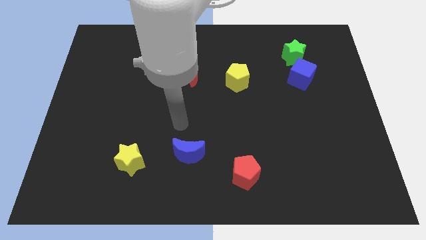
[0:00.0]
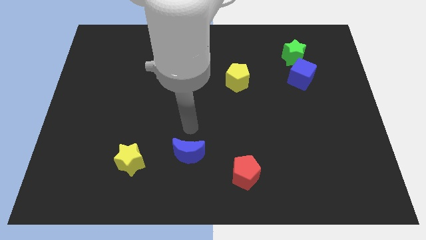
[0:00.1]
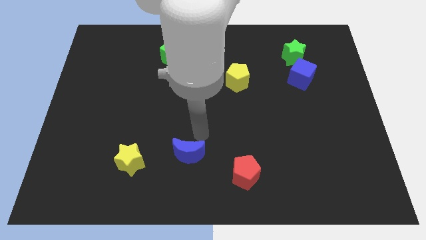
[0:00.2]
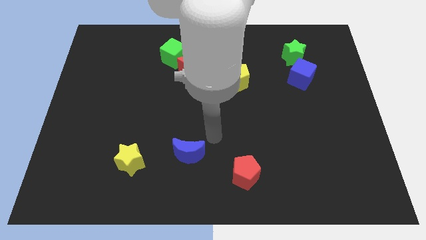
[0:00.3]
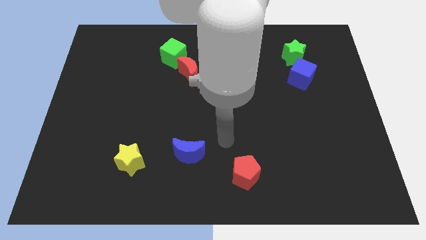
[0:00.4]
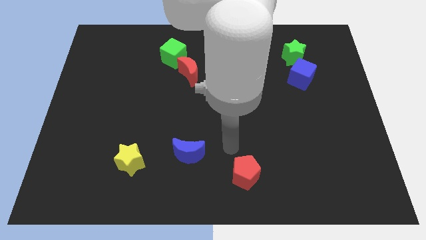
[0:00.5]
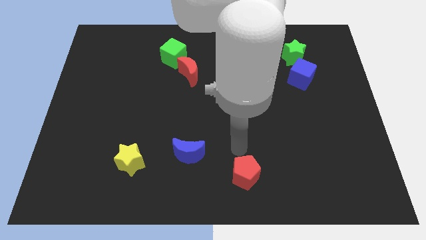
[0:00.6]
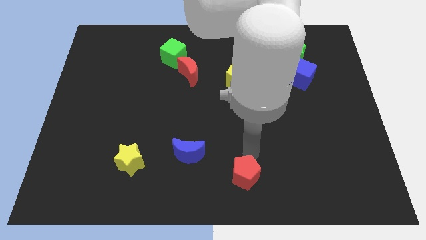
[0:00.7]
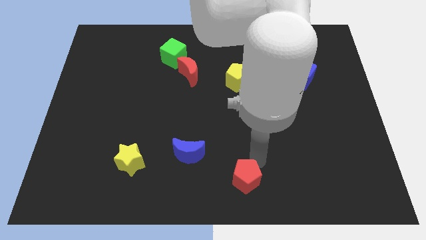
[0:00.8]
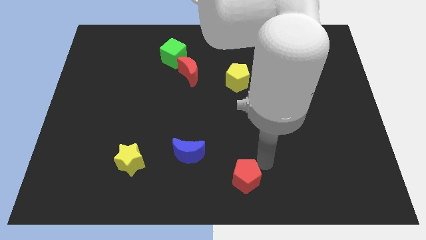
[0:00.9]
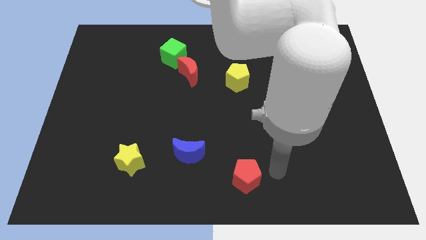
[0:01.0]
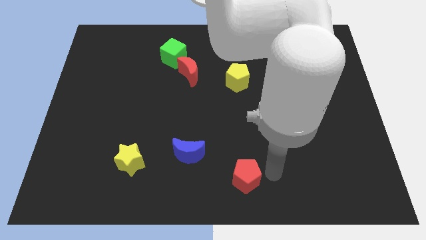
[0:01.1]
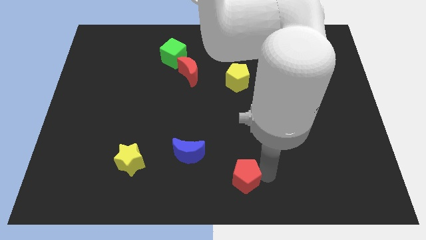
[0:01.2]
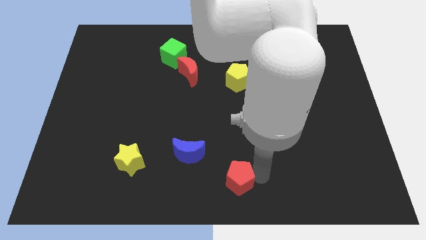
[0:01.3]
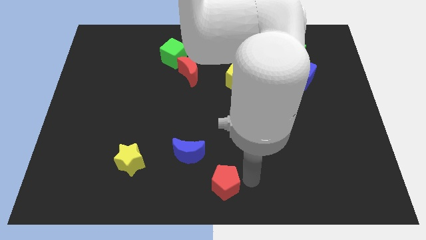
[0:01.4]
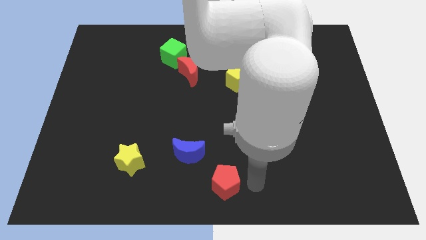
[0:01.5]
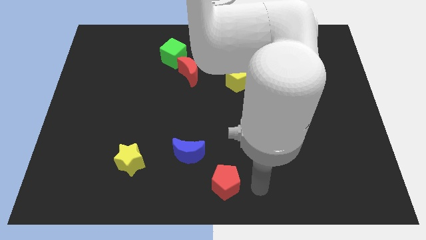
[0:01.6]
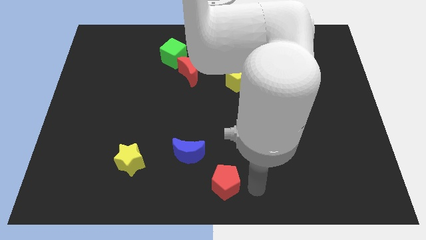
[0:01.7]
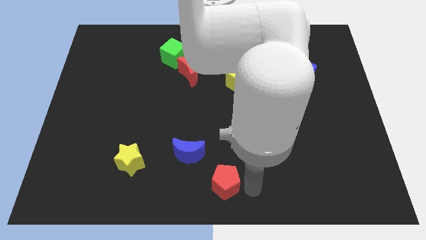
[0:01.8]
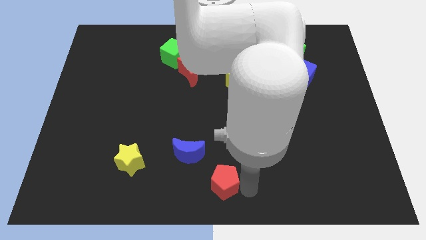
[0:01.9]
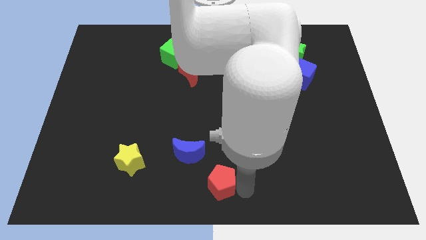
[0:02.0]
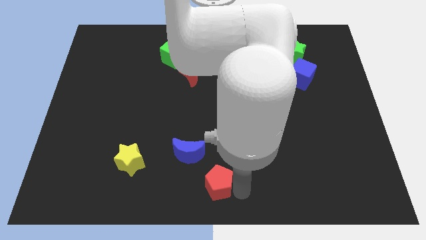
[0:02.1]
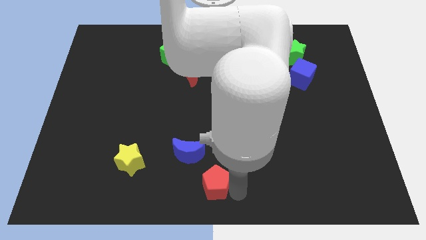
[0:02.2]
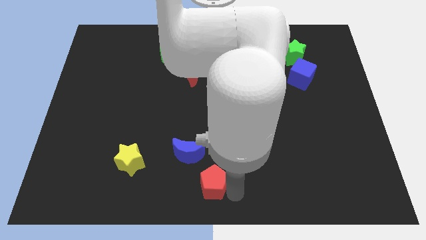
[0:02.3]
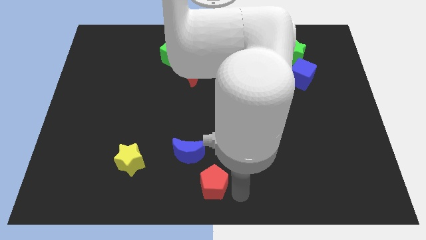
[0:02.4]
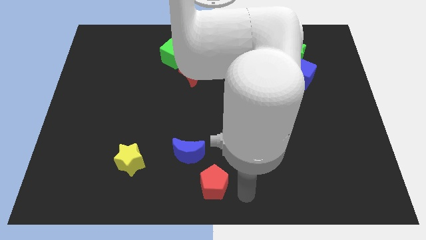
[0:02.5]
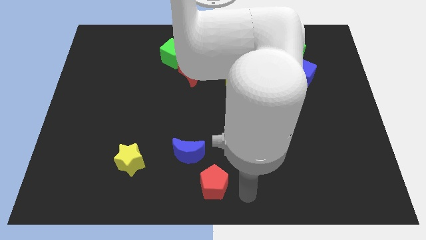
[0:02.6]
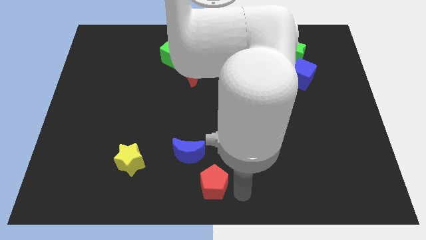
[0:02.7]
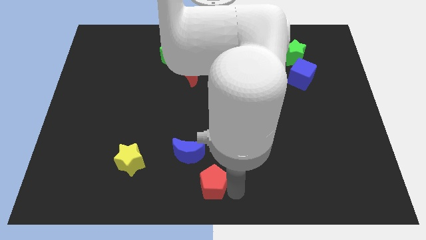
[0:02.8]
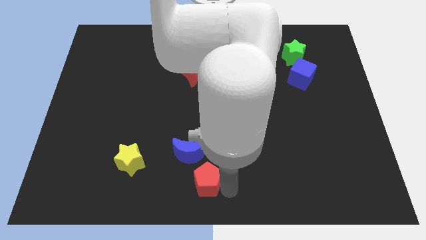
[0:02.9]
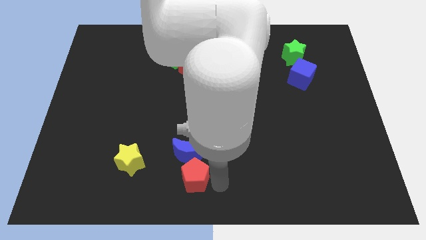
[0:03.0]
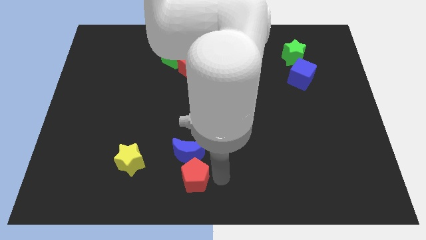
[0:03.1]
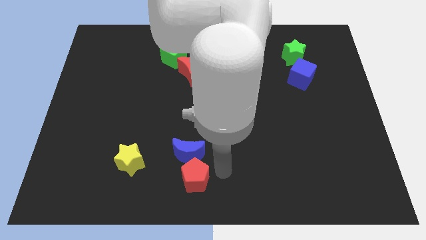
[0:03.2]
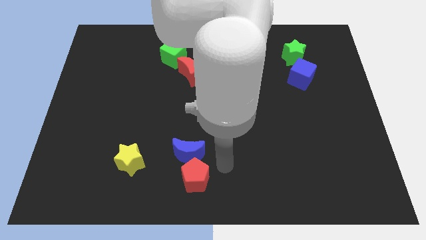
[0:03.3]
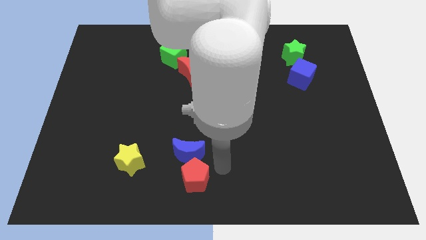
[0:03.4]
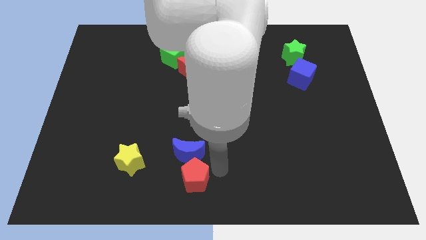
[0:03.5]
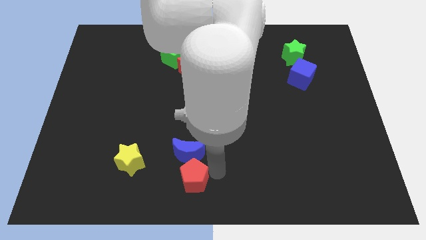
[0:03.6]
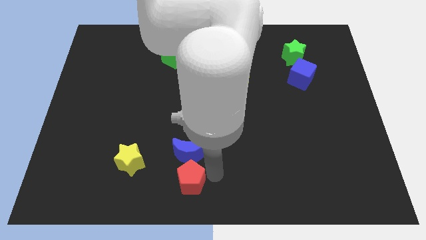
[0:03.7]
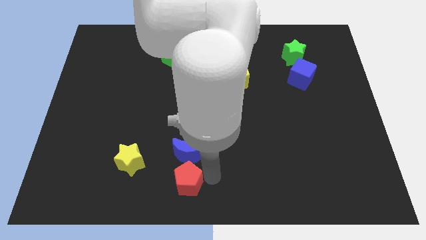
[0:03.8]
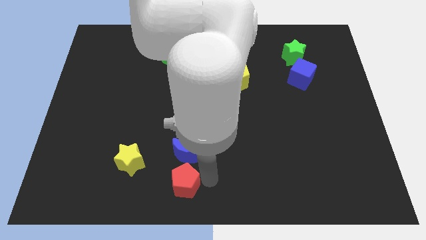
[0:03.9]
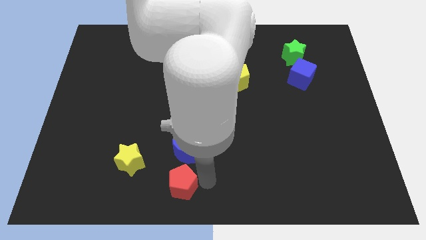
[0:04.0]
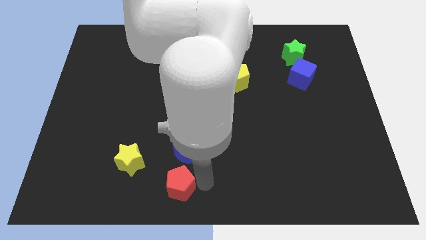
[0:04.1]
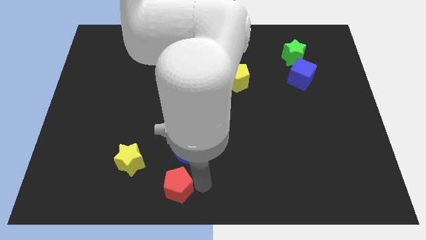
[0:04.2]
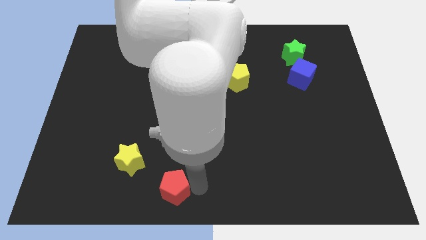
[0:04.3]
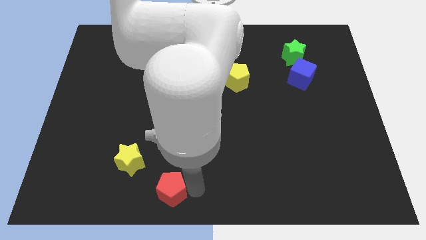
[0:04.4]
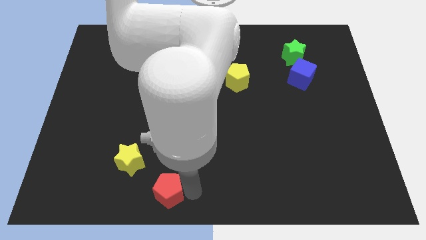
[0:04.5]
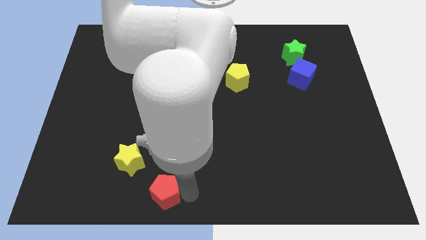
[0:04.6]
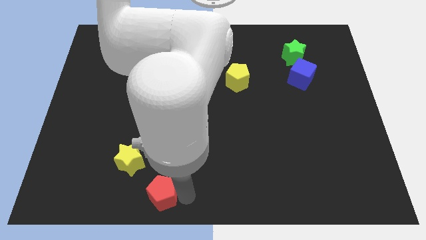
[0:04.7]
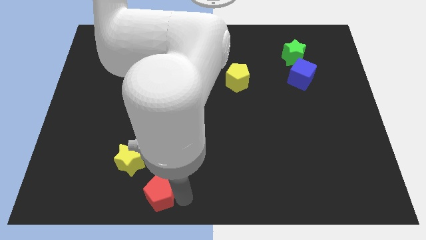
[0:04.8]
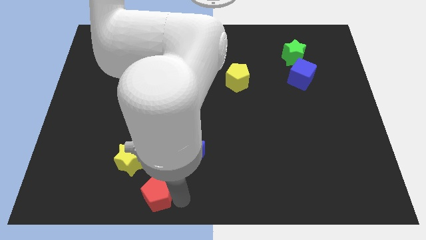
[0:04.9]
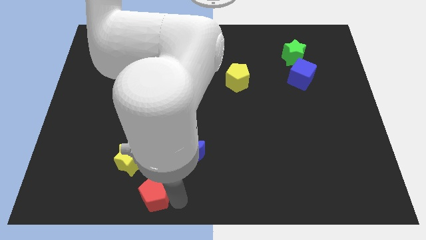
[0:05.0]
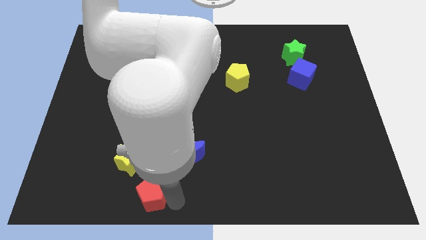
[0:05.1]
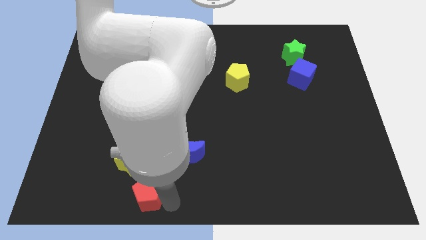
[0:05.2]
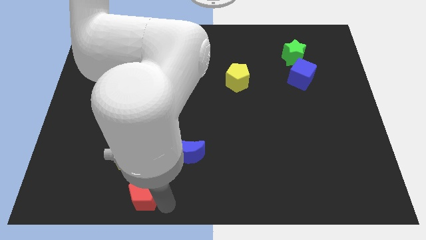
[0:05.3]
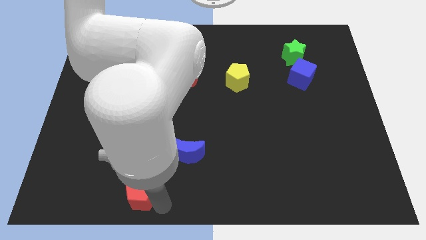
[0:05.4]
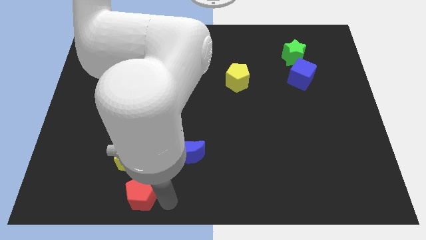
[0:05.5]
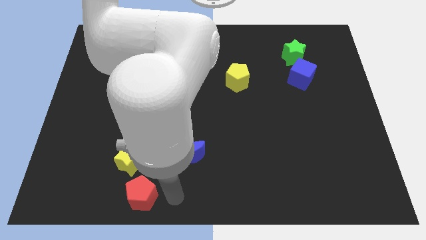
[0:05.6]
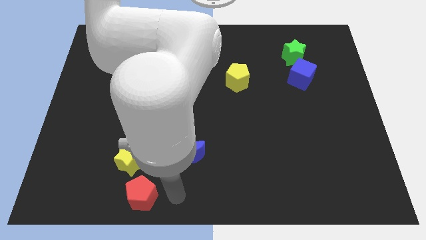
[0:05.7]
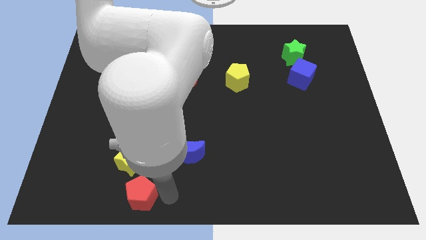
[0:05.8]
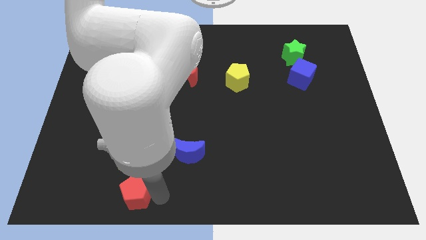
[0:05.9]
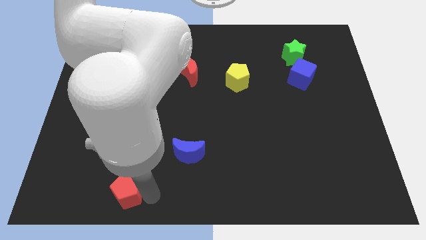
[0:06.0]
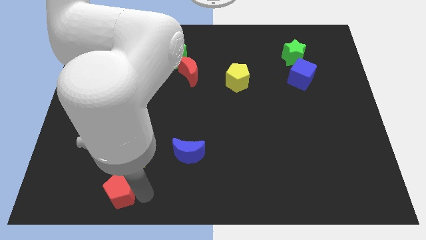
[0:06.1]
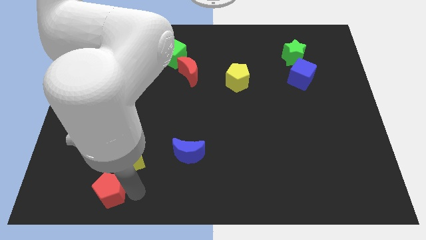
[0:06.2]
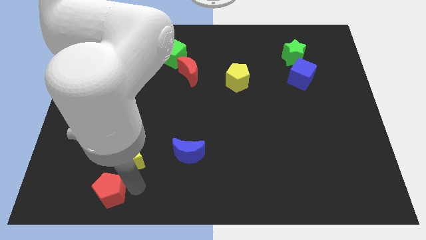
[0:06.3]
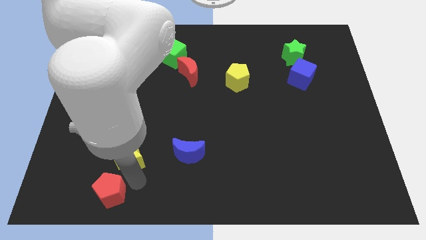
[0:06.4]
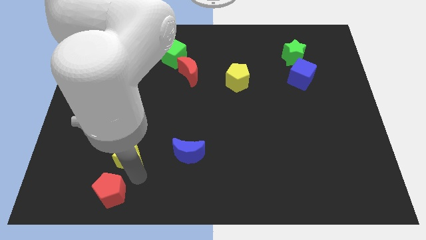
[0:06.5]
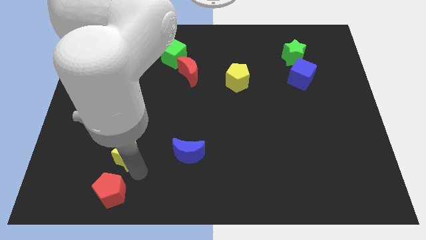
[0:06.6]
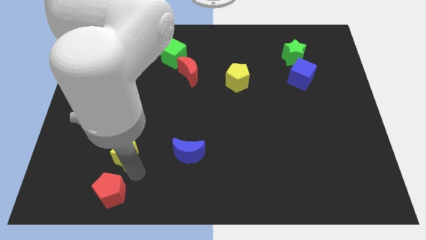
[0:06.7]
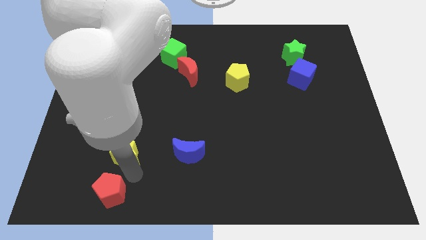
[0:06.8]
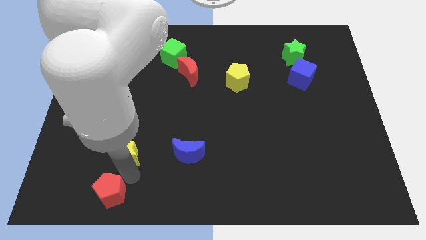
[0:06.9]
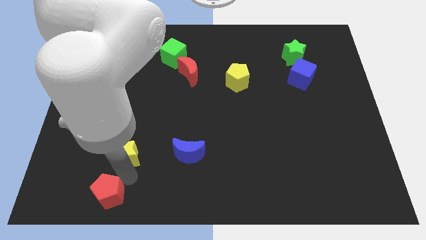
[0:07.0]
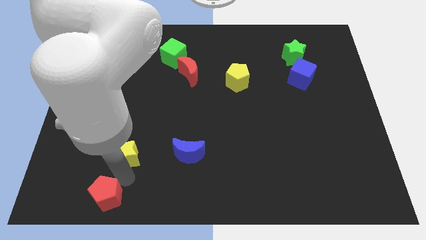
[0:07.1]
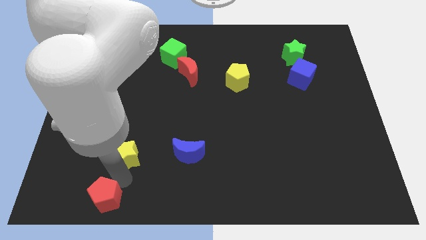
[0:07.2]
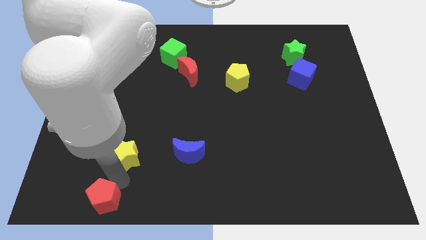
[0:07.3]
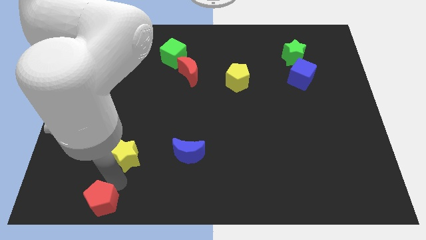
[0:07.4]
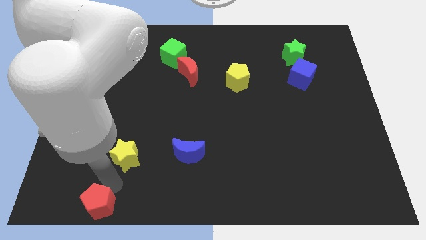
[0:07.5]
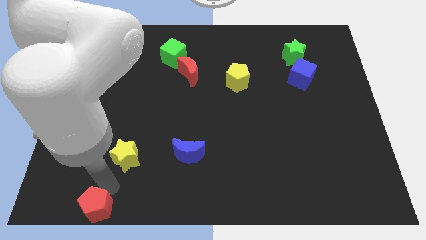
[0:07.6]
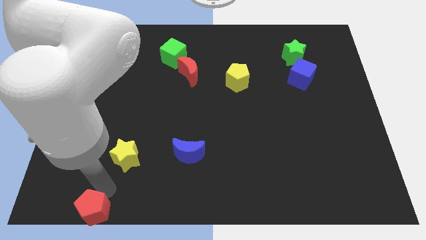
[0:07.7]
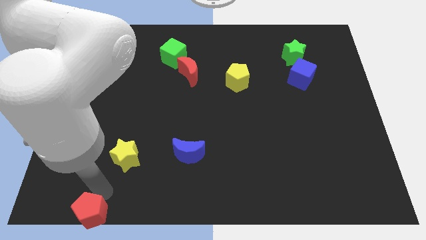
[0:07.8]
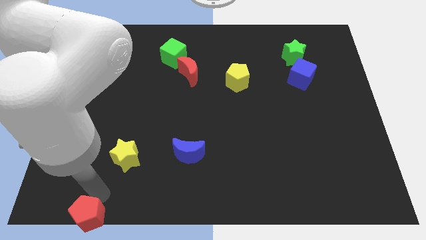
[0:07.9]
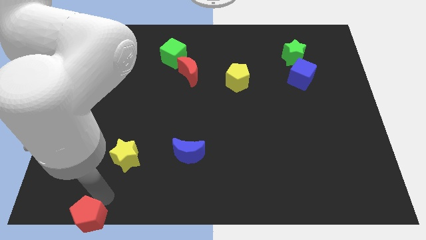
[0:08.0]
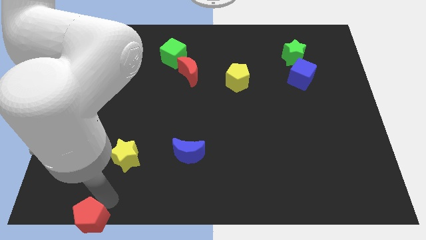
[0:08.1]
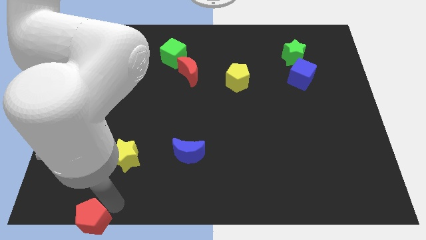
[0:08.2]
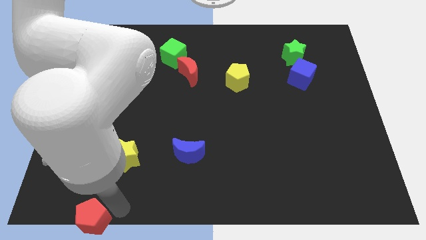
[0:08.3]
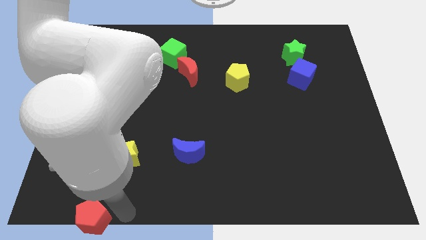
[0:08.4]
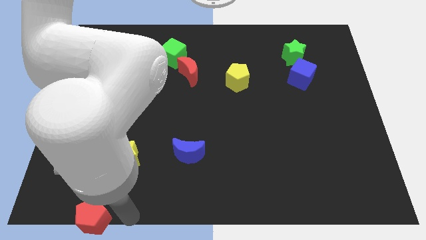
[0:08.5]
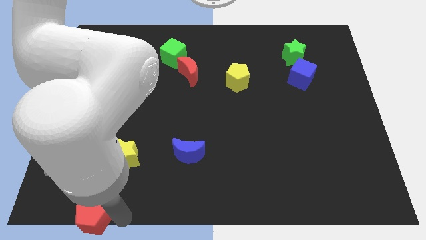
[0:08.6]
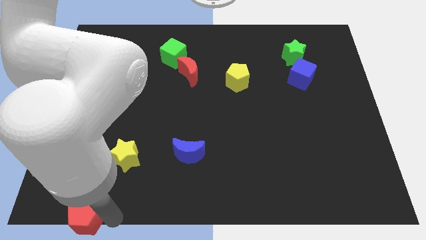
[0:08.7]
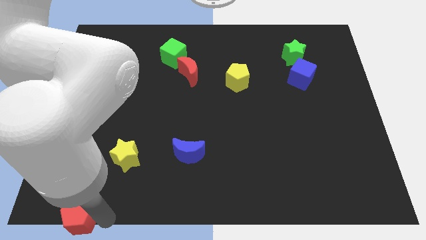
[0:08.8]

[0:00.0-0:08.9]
move the red pentagon to the lower left corner
